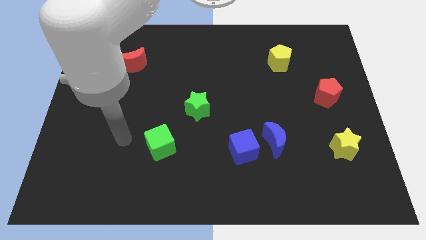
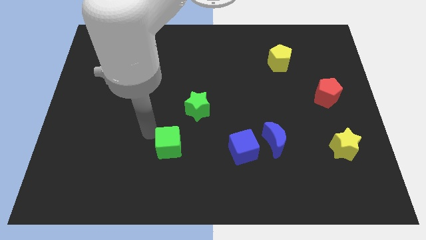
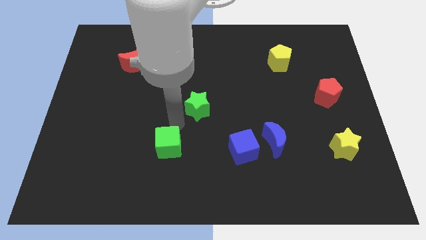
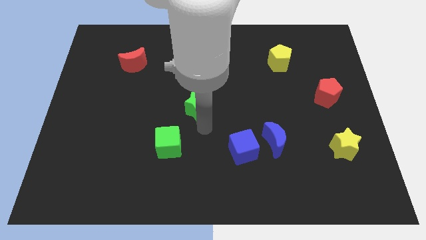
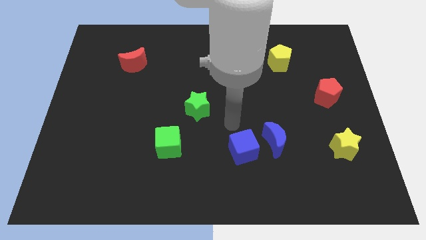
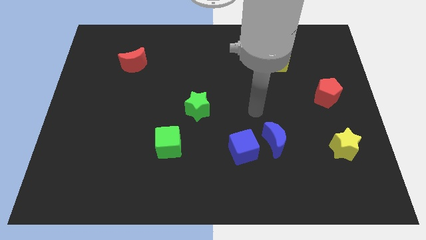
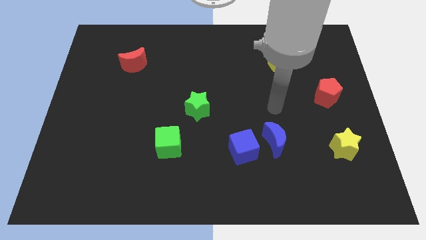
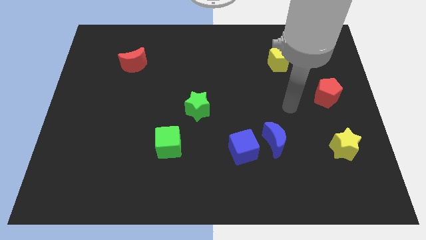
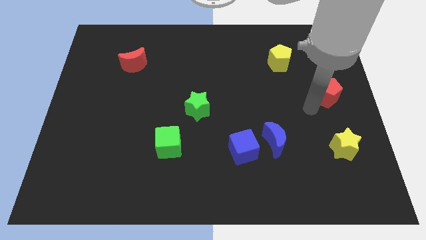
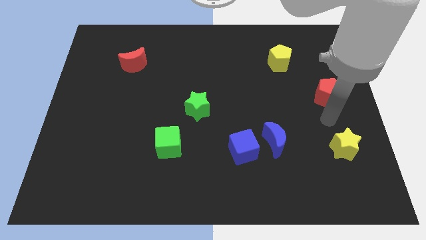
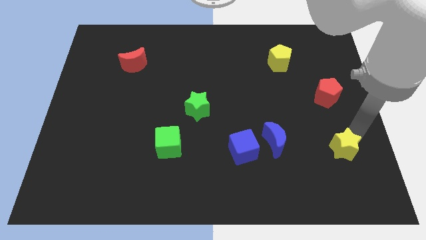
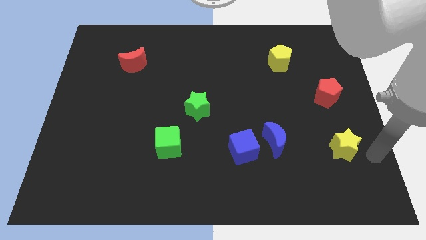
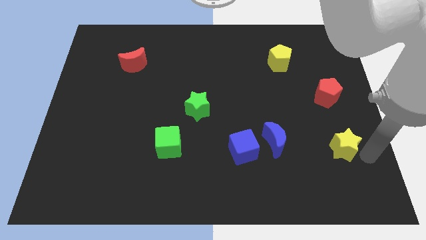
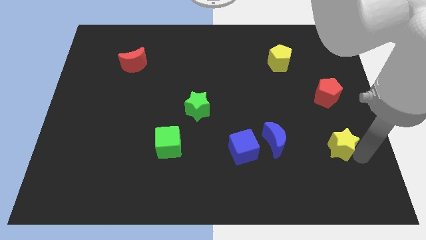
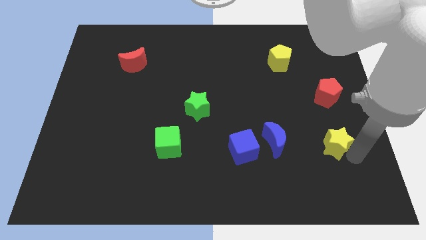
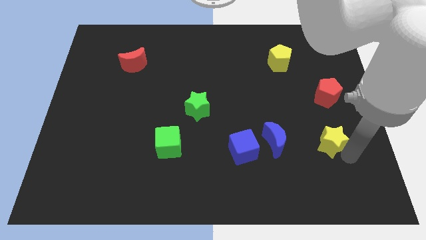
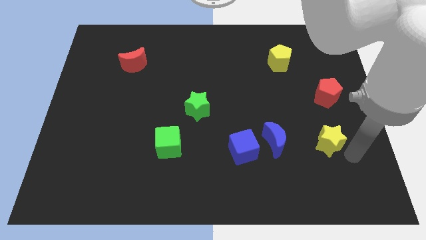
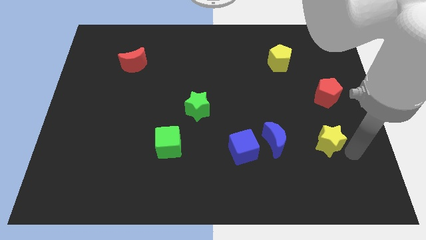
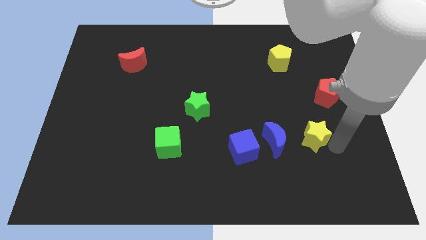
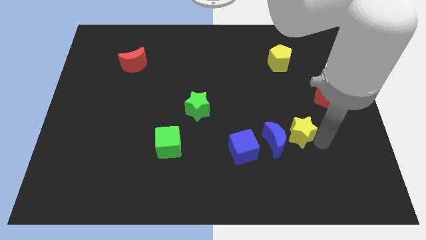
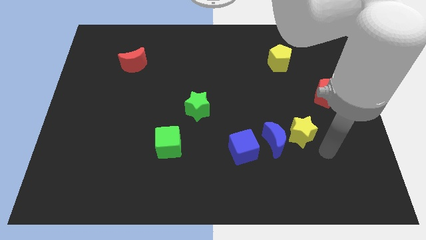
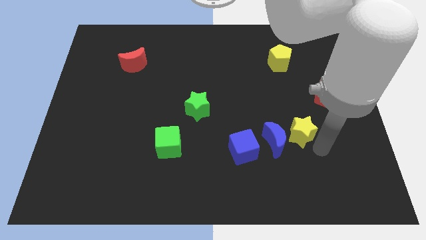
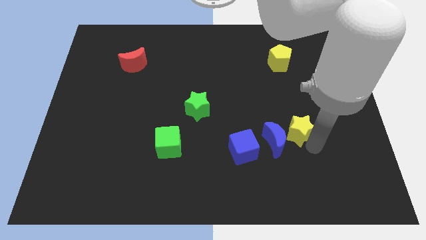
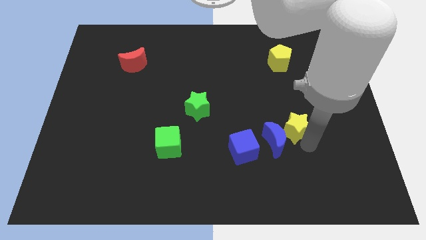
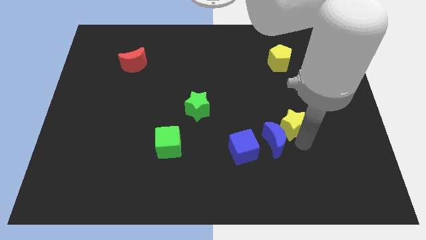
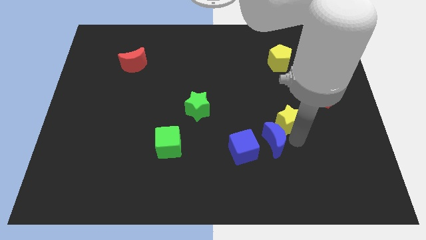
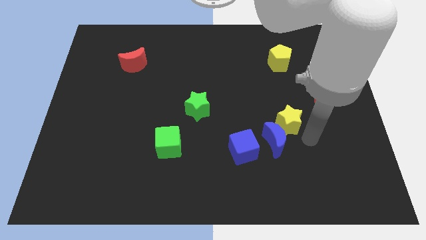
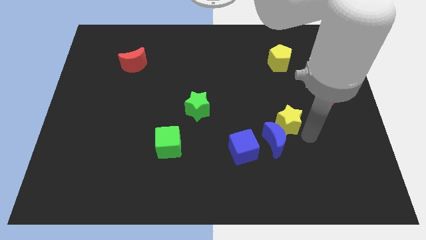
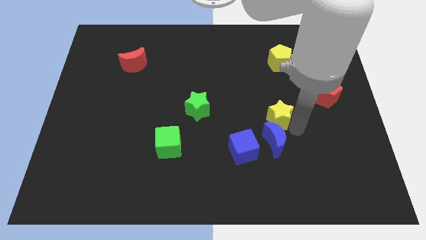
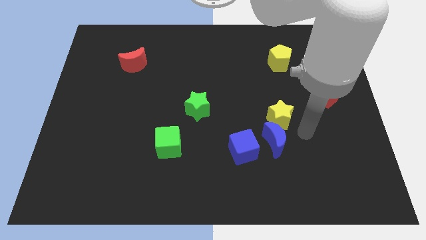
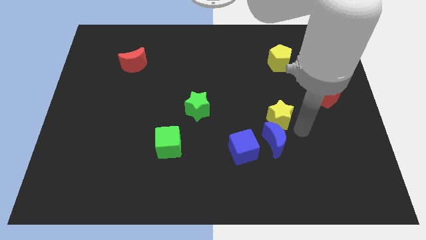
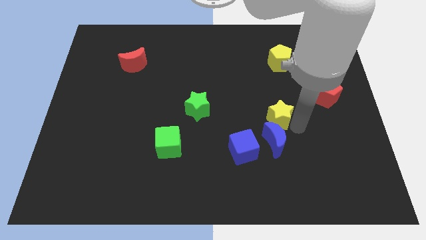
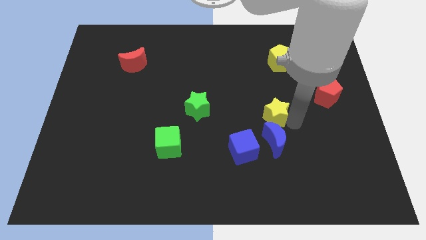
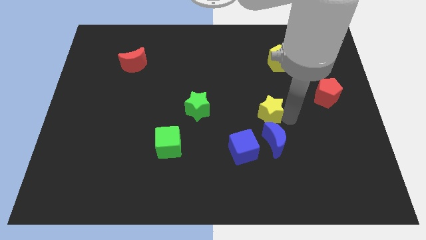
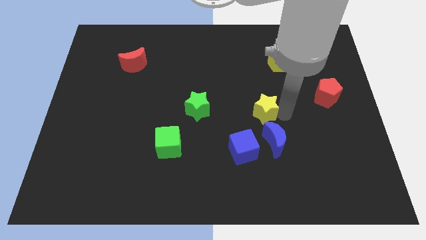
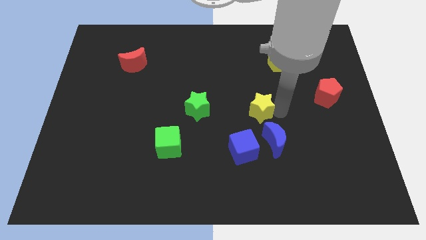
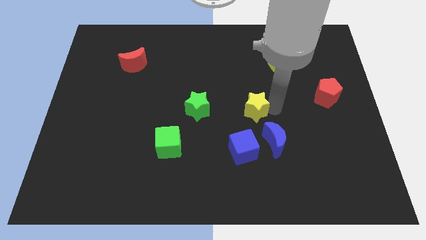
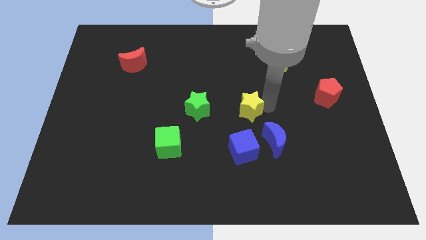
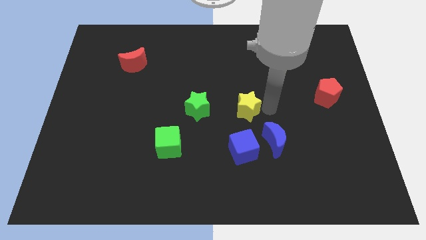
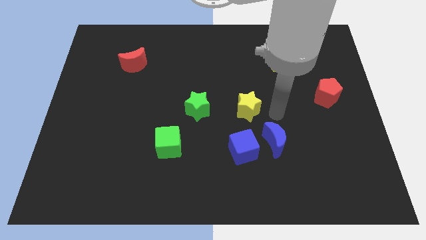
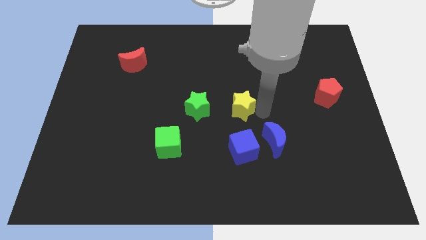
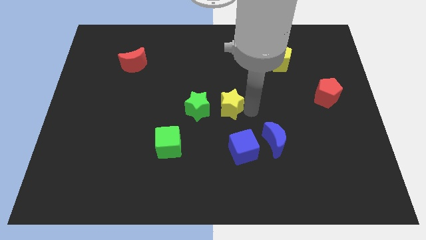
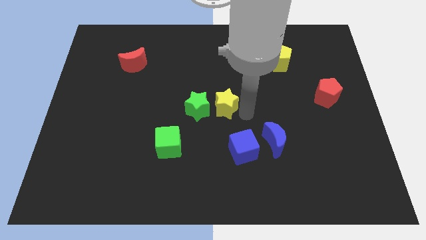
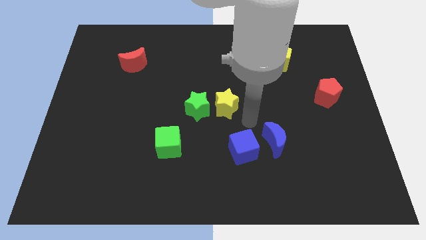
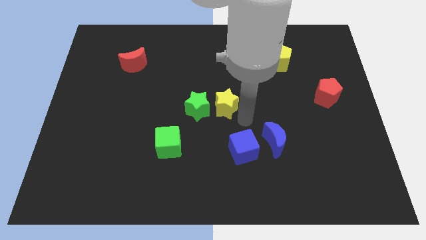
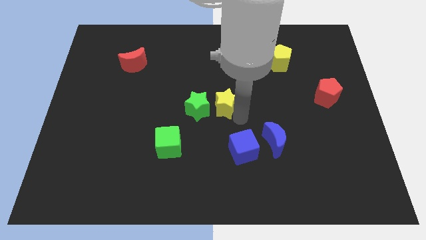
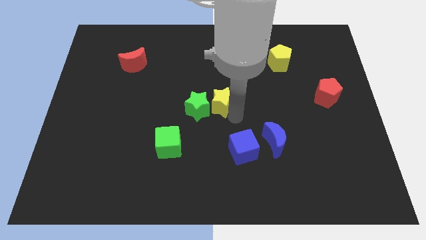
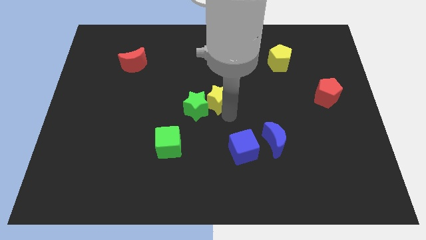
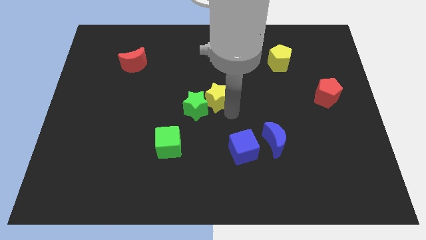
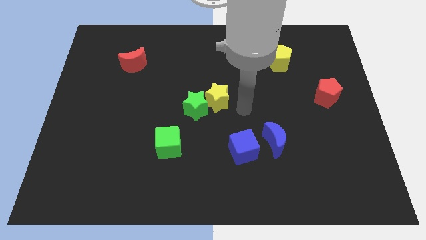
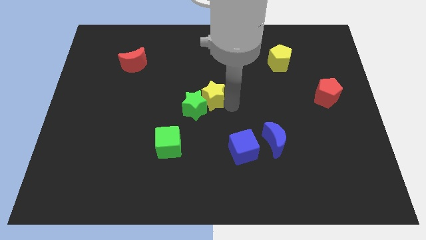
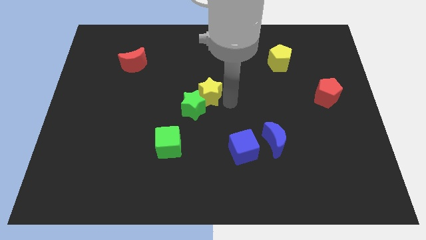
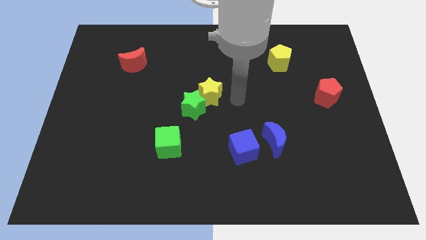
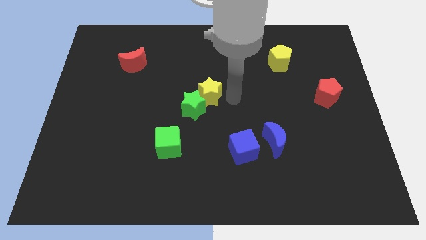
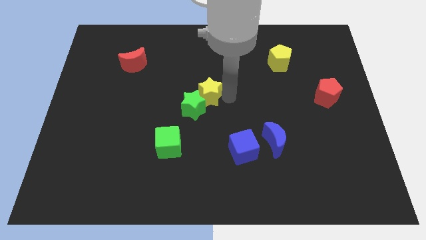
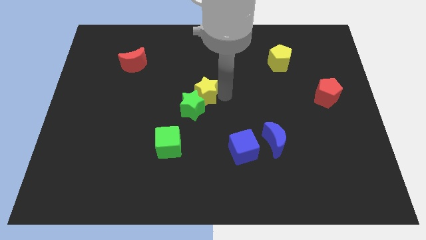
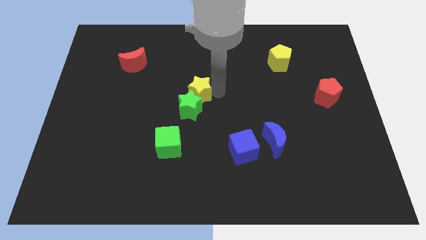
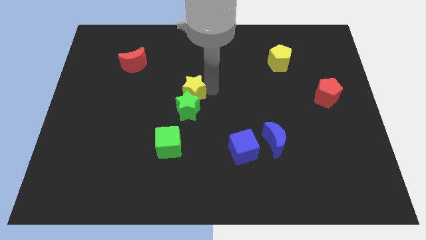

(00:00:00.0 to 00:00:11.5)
push the yellow star to the top left side of the green star

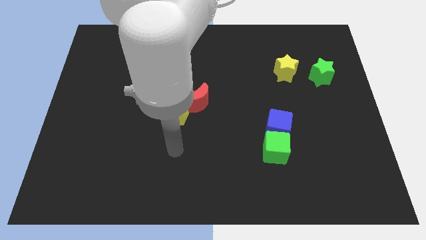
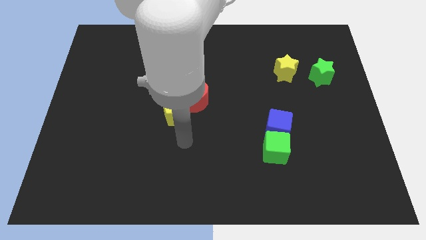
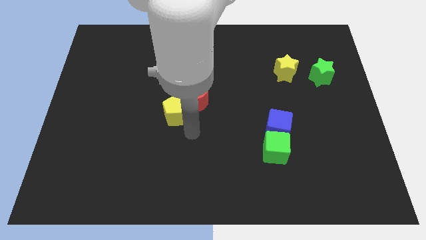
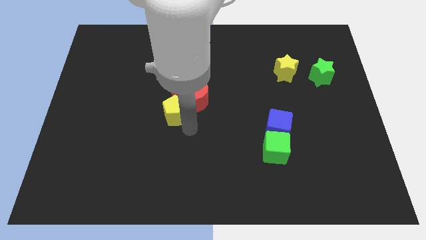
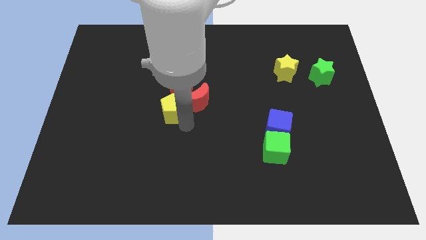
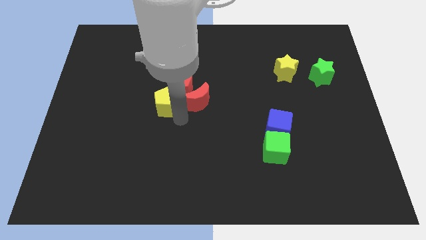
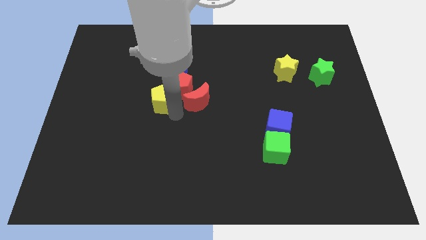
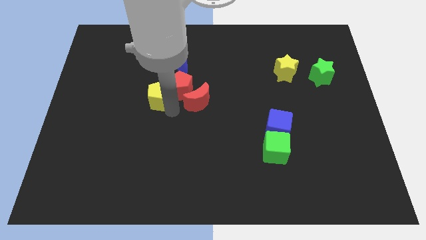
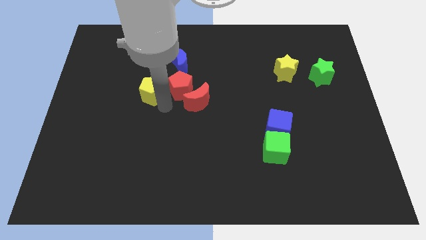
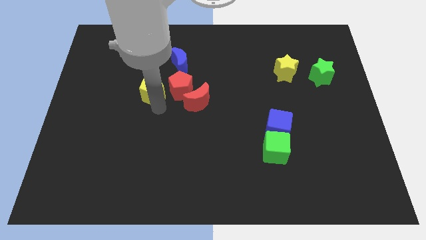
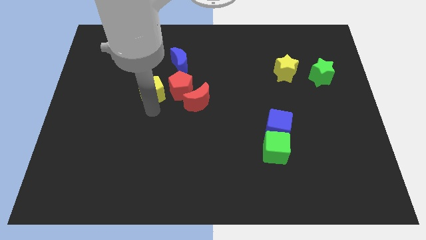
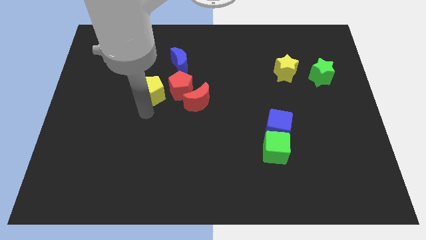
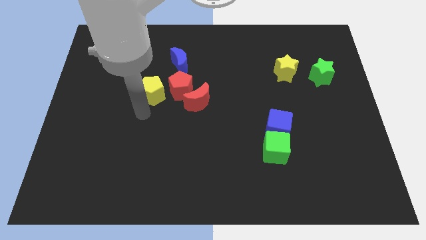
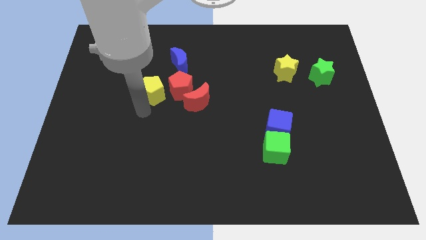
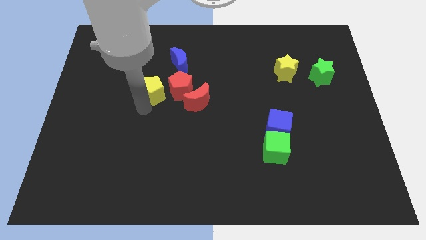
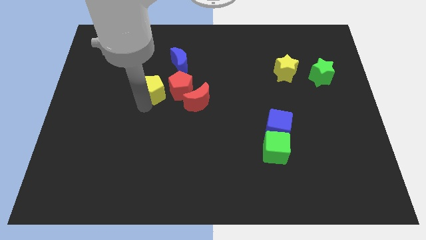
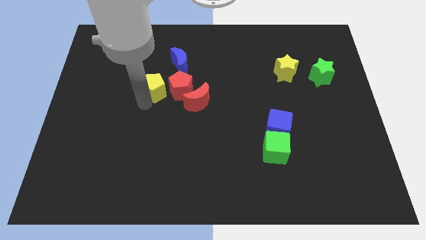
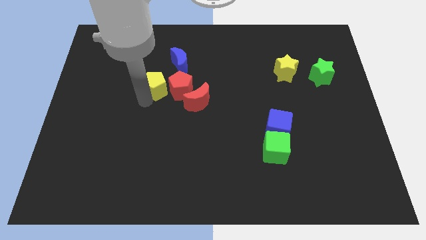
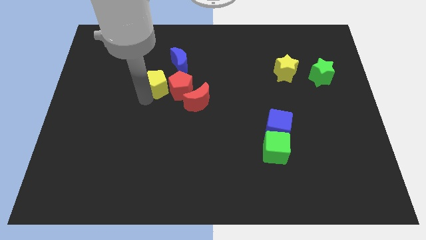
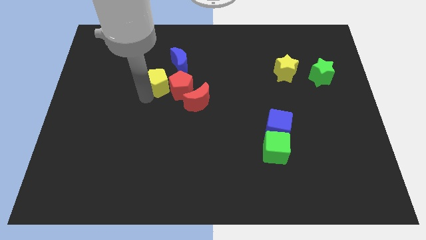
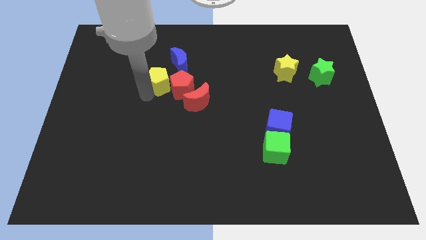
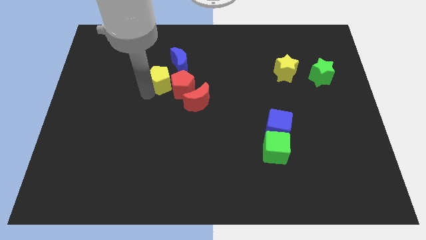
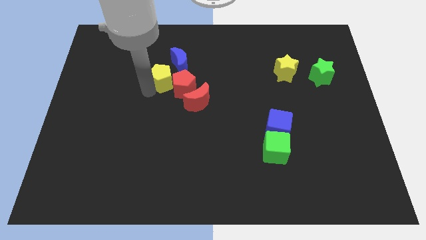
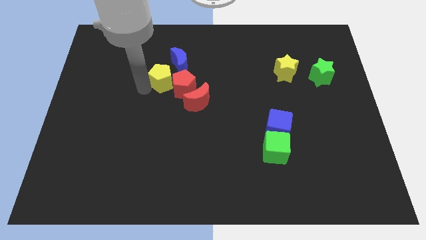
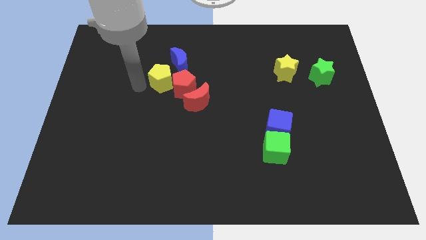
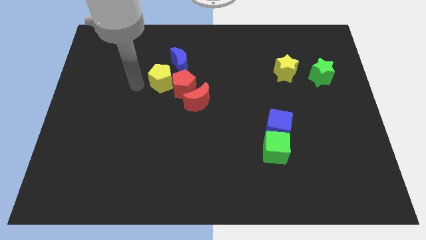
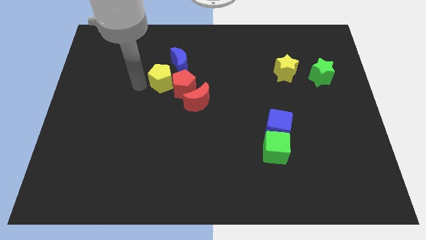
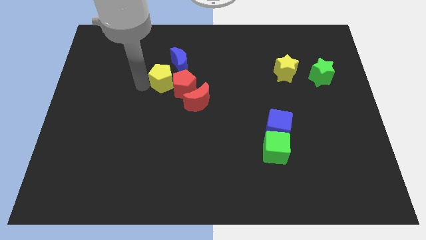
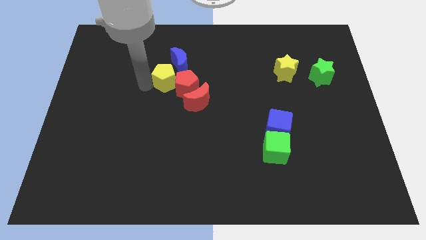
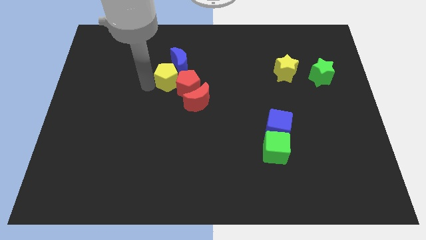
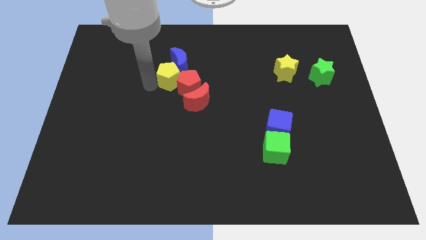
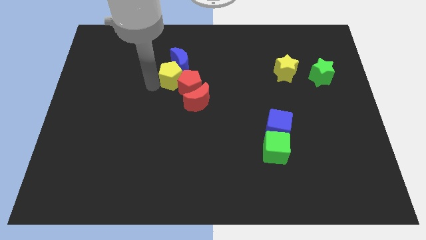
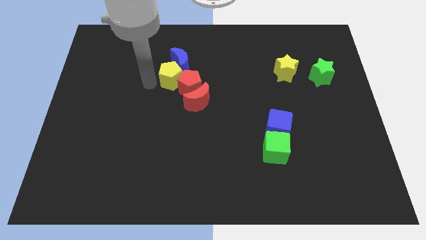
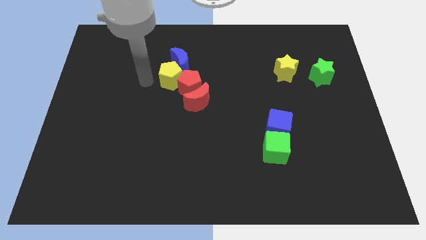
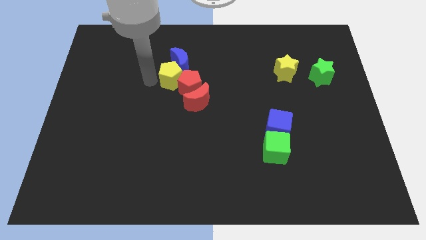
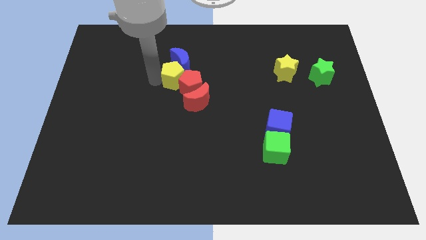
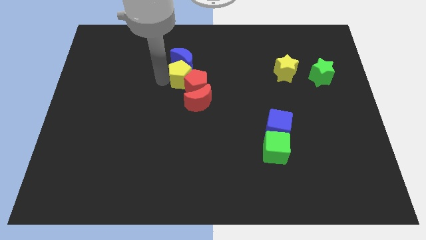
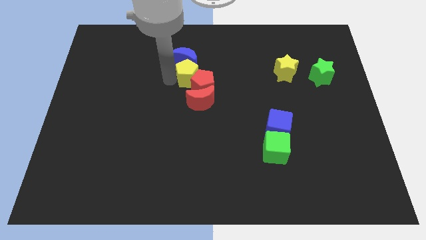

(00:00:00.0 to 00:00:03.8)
move the yellow pentagon above the red moon
